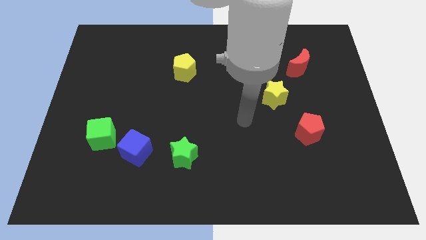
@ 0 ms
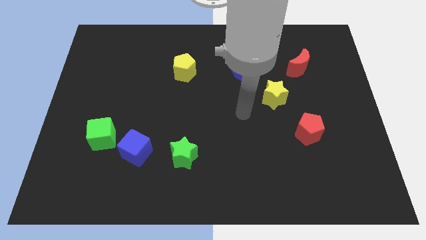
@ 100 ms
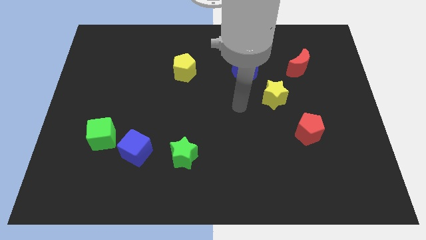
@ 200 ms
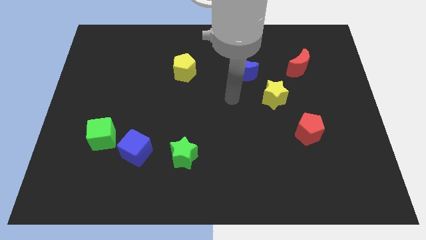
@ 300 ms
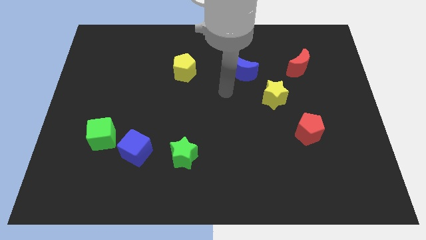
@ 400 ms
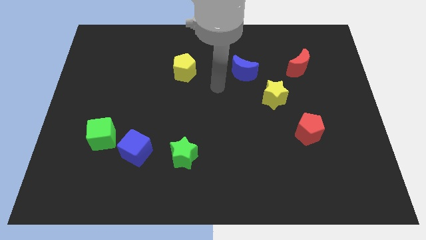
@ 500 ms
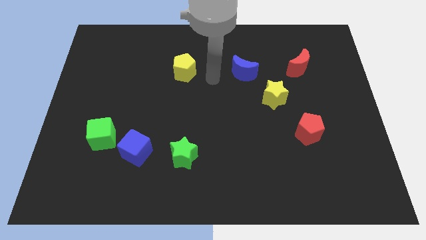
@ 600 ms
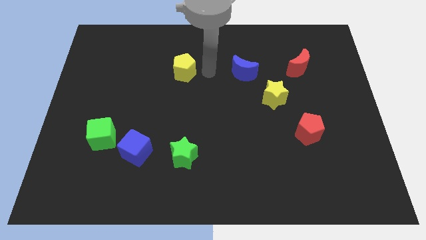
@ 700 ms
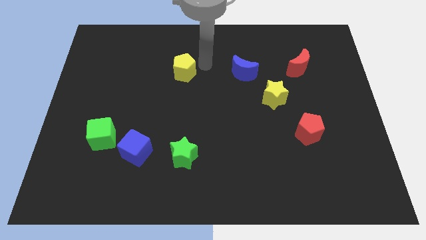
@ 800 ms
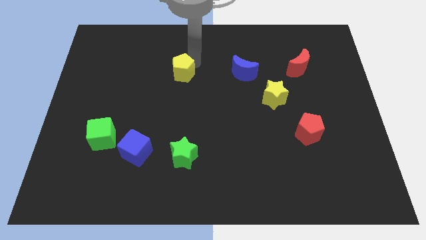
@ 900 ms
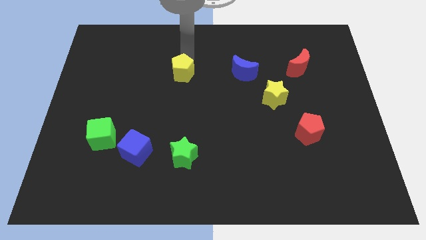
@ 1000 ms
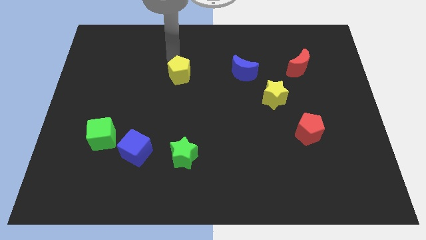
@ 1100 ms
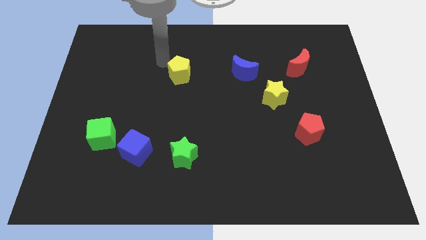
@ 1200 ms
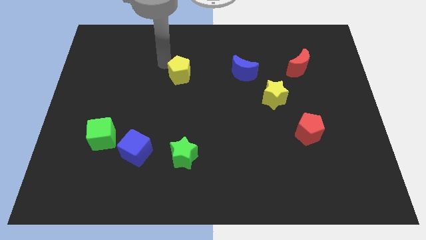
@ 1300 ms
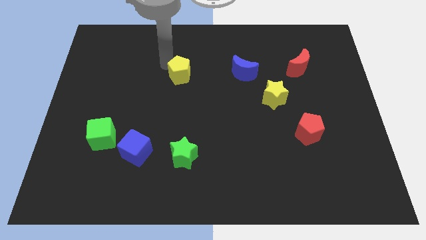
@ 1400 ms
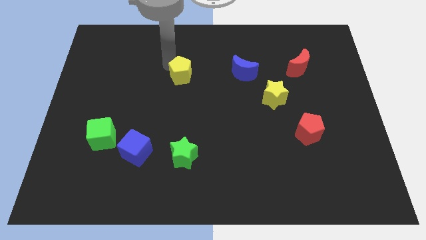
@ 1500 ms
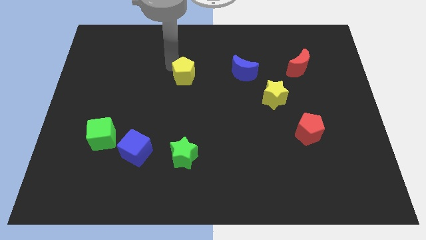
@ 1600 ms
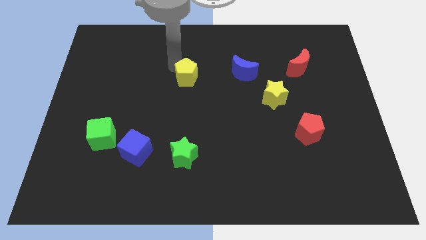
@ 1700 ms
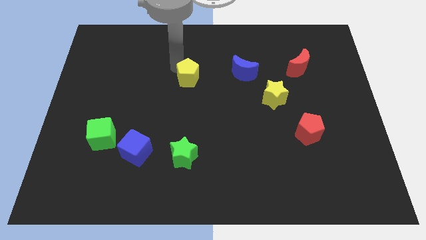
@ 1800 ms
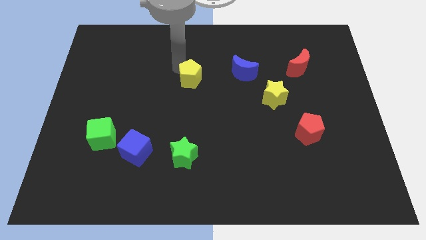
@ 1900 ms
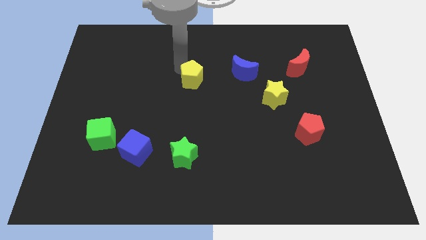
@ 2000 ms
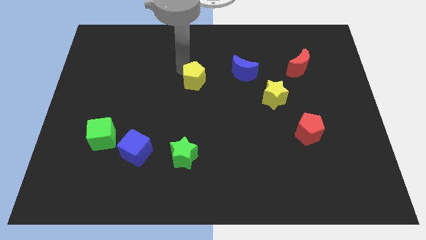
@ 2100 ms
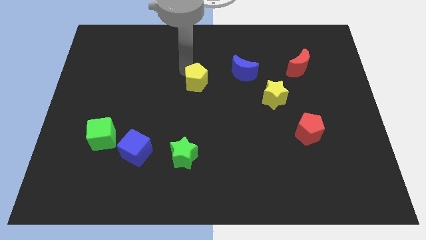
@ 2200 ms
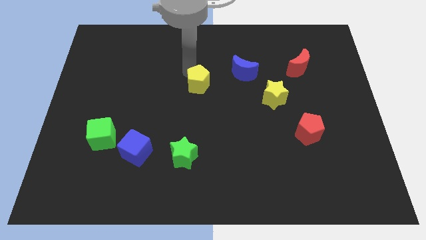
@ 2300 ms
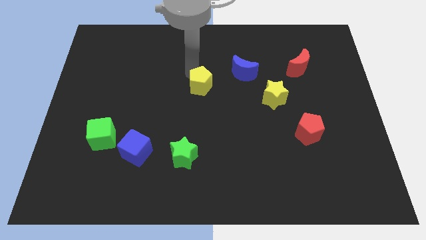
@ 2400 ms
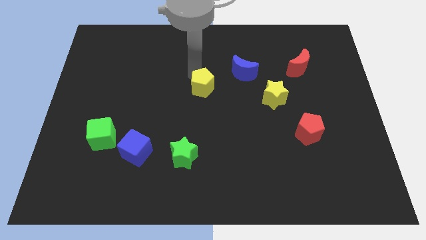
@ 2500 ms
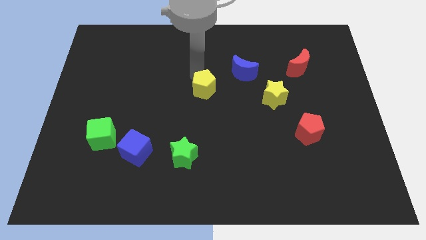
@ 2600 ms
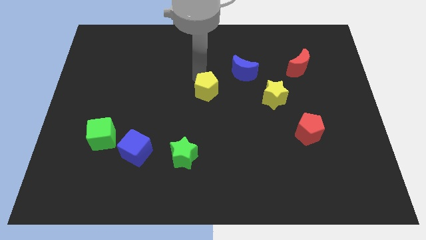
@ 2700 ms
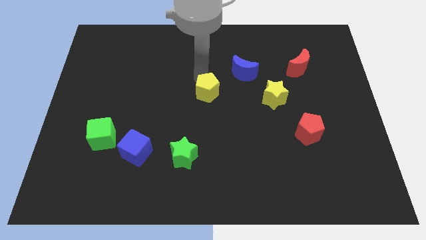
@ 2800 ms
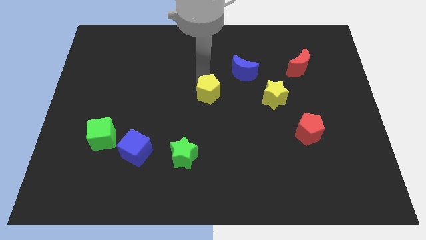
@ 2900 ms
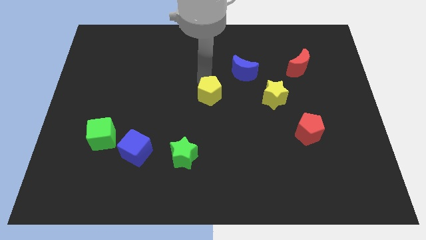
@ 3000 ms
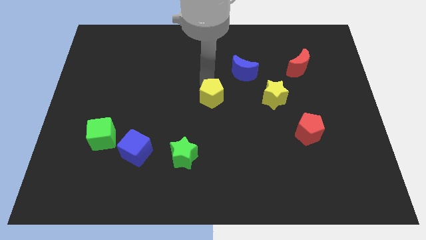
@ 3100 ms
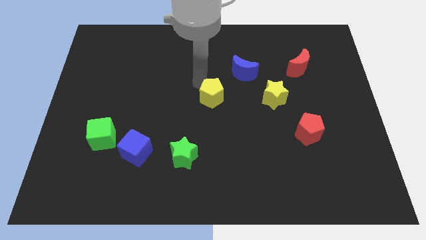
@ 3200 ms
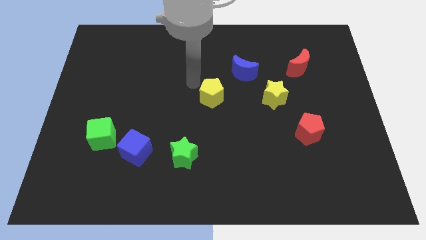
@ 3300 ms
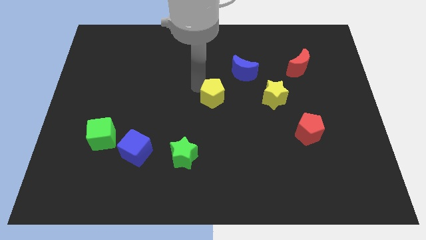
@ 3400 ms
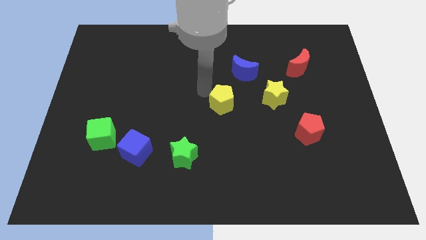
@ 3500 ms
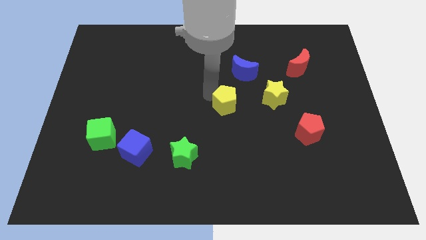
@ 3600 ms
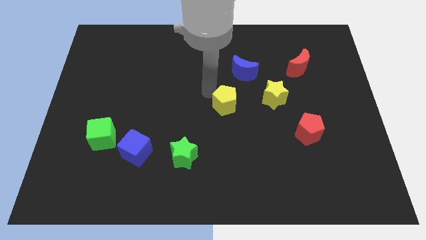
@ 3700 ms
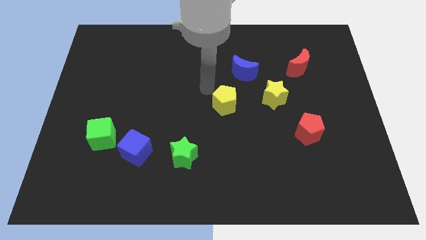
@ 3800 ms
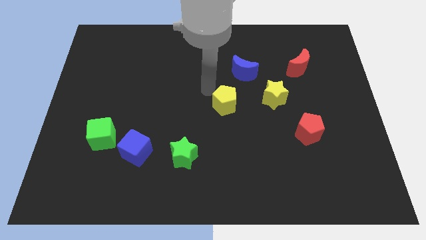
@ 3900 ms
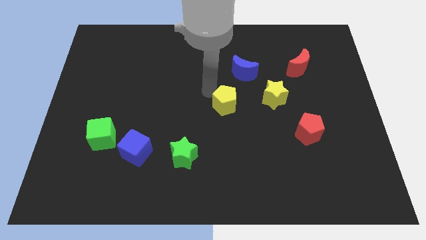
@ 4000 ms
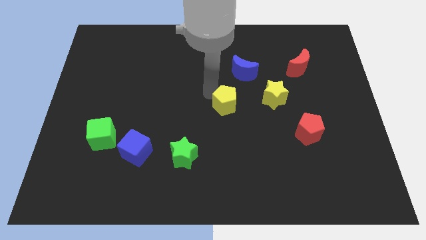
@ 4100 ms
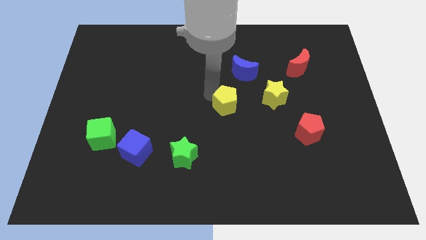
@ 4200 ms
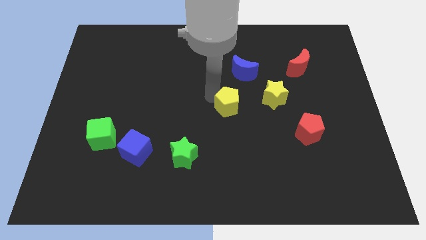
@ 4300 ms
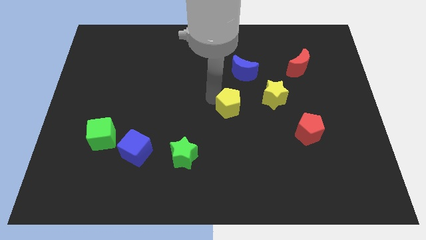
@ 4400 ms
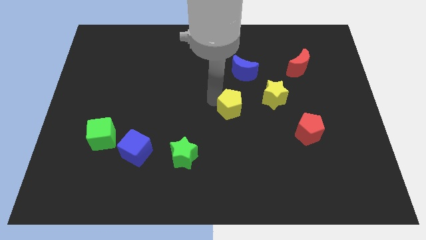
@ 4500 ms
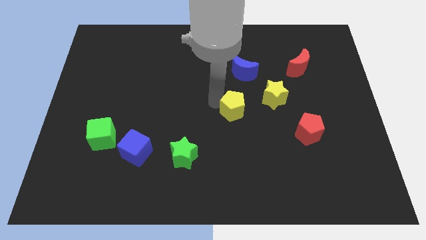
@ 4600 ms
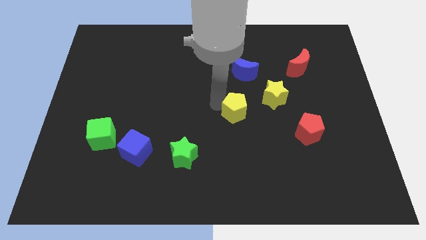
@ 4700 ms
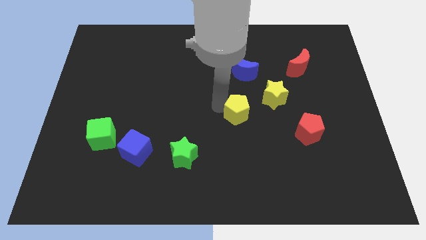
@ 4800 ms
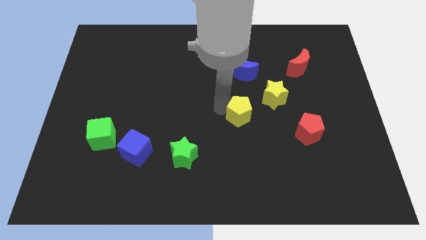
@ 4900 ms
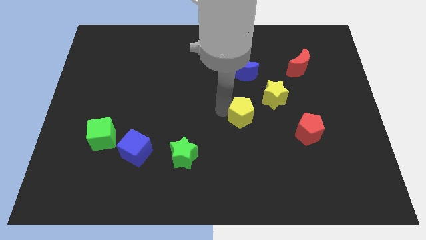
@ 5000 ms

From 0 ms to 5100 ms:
slide the yellow pentagon downwards and right diagonally

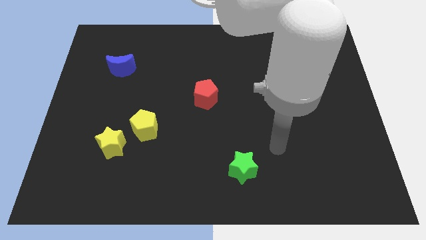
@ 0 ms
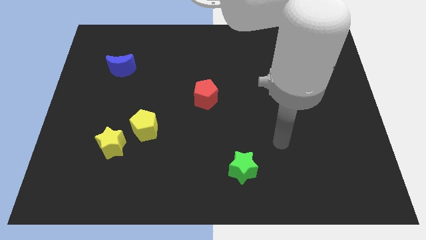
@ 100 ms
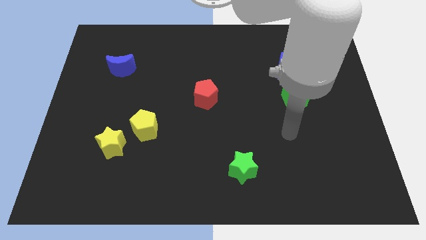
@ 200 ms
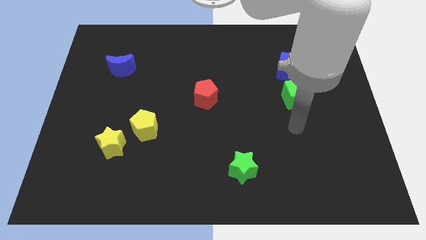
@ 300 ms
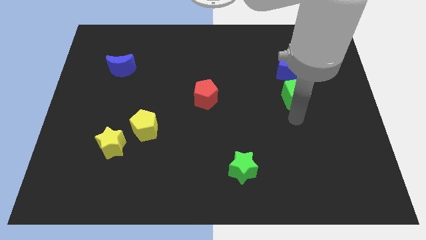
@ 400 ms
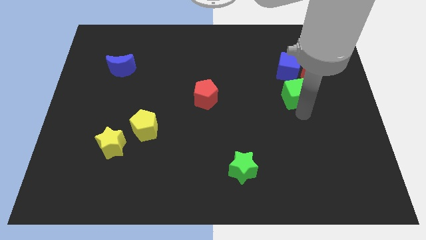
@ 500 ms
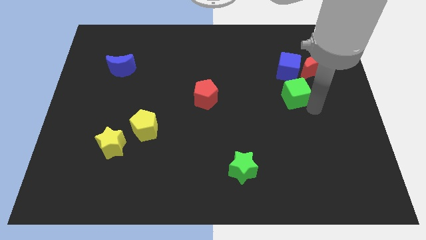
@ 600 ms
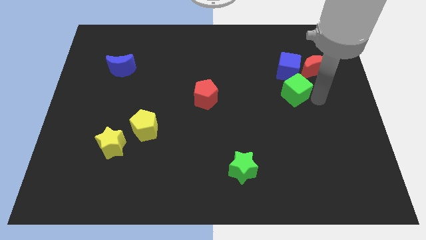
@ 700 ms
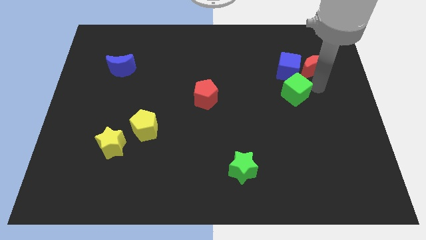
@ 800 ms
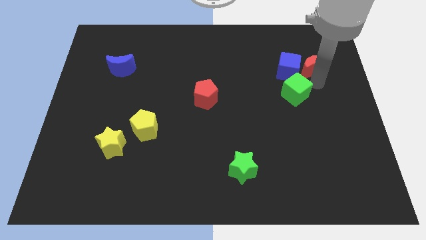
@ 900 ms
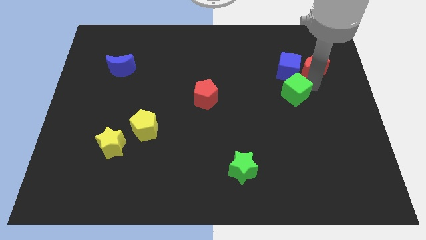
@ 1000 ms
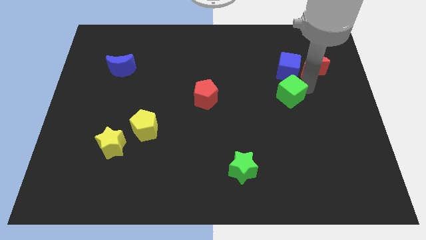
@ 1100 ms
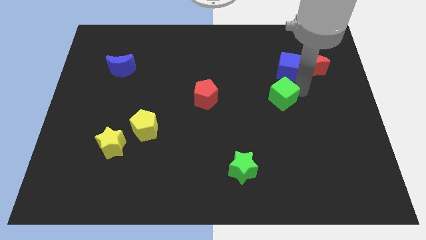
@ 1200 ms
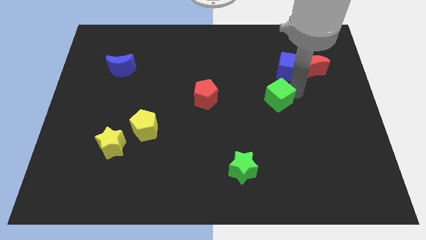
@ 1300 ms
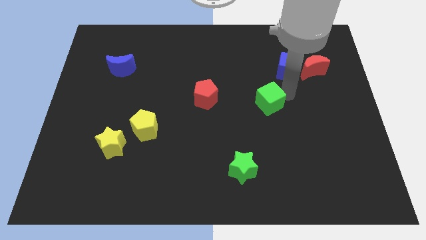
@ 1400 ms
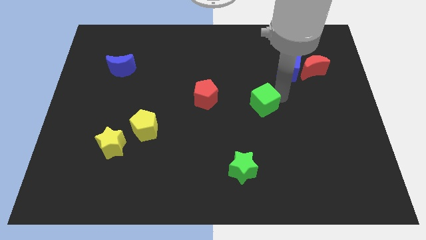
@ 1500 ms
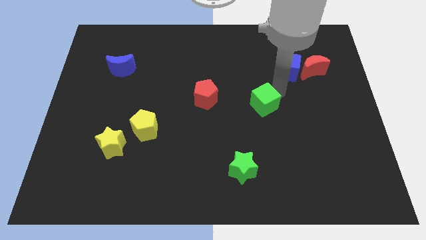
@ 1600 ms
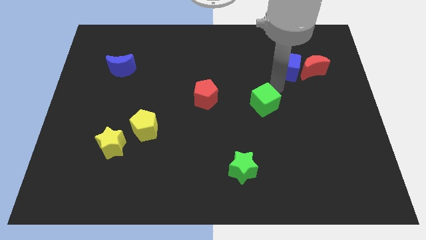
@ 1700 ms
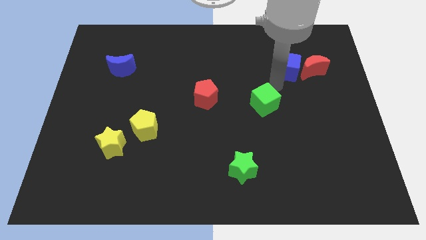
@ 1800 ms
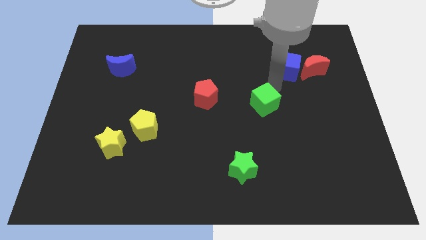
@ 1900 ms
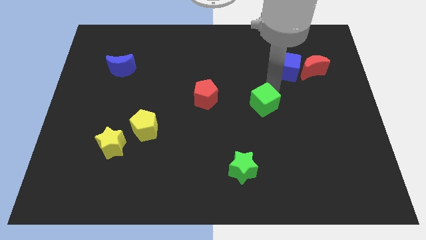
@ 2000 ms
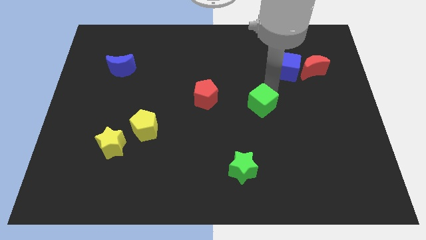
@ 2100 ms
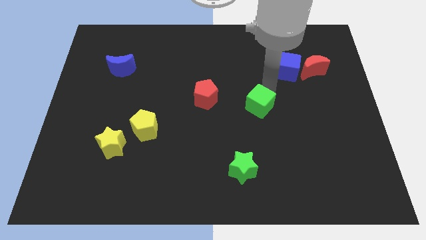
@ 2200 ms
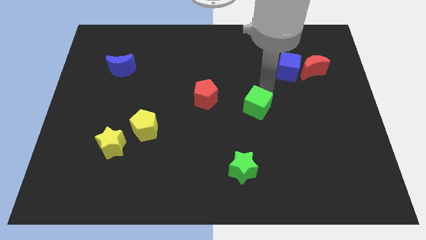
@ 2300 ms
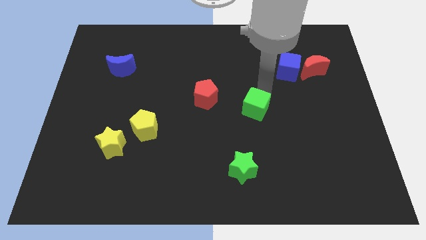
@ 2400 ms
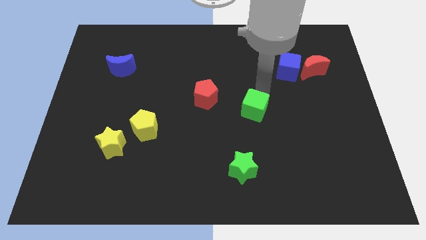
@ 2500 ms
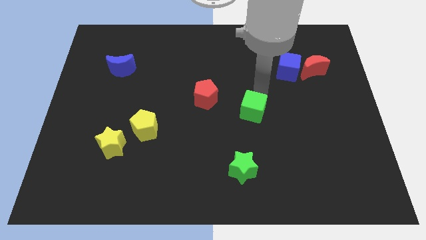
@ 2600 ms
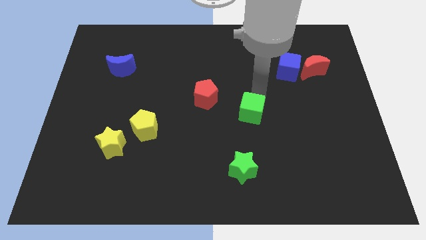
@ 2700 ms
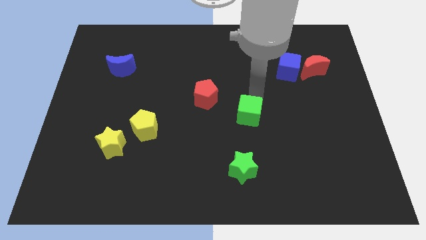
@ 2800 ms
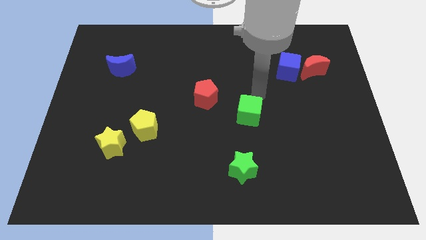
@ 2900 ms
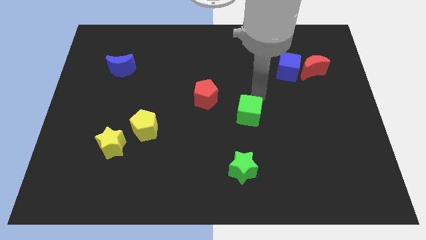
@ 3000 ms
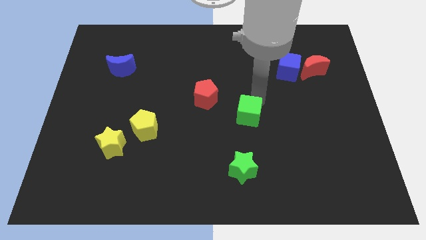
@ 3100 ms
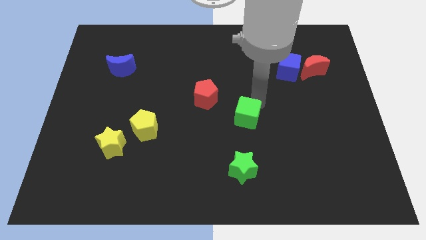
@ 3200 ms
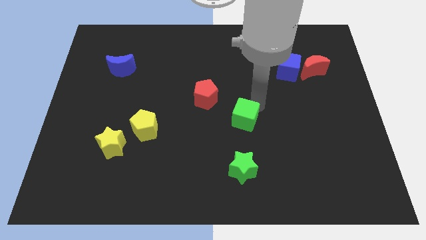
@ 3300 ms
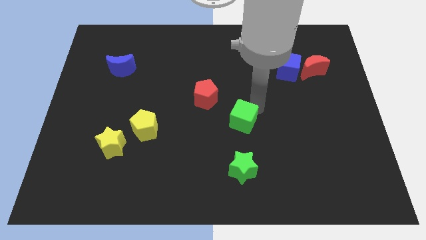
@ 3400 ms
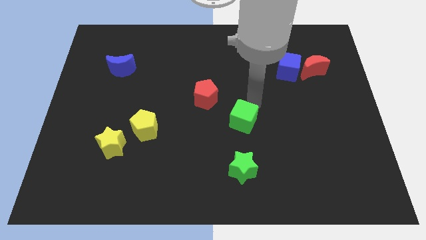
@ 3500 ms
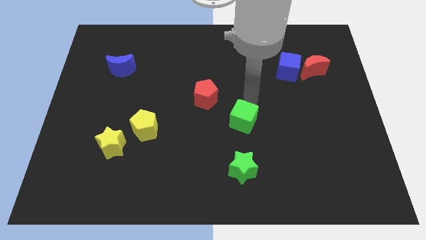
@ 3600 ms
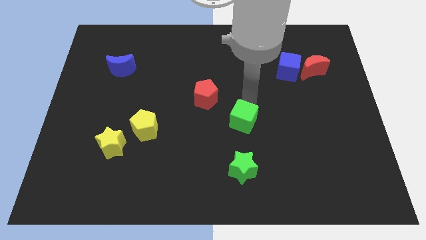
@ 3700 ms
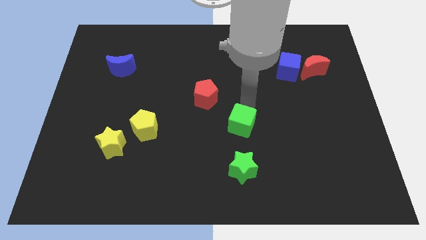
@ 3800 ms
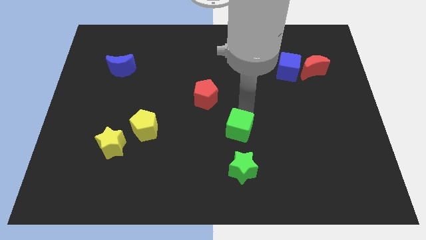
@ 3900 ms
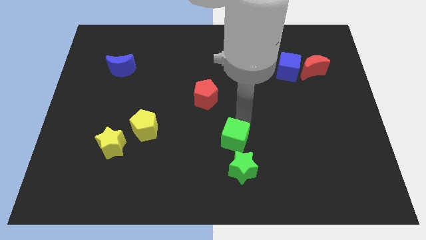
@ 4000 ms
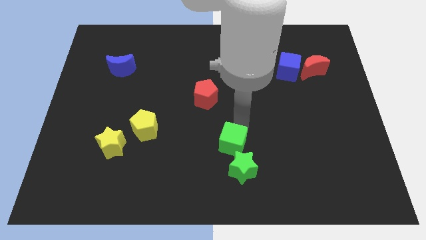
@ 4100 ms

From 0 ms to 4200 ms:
slide the green cube down and left diagonally
